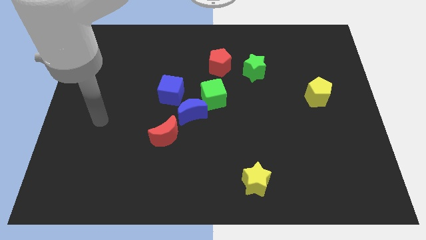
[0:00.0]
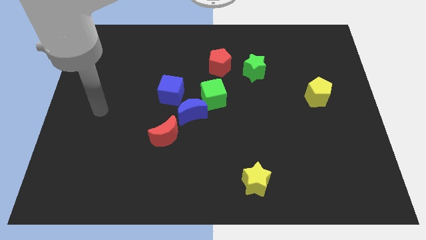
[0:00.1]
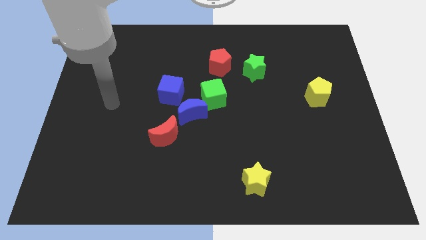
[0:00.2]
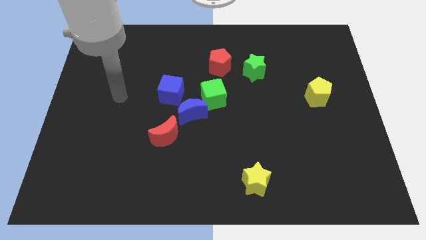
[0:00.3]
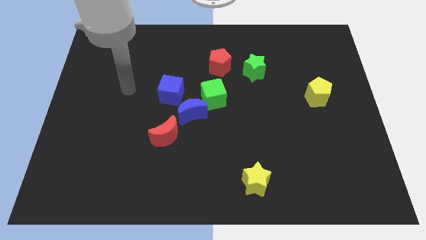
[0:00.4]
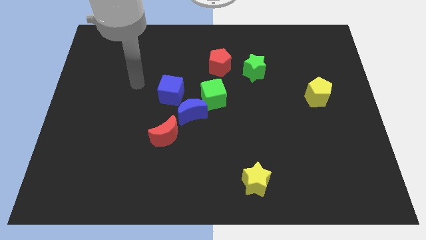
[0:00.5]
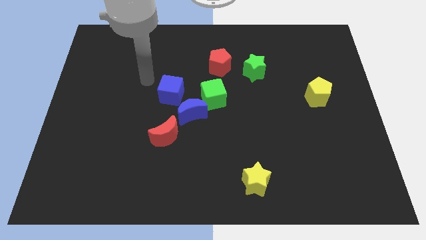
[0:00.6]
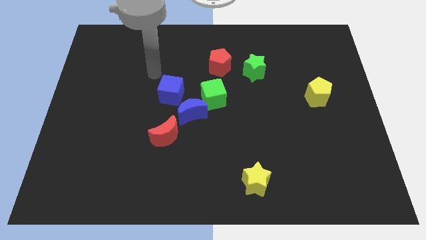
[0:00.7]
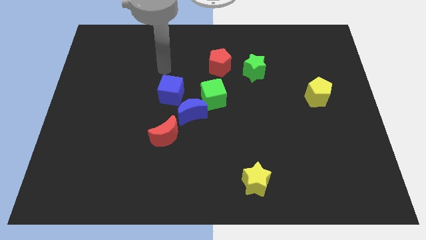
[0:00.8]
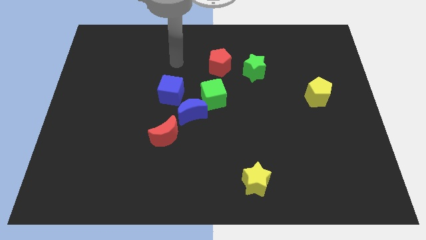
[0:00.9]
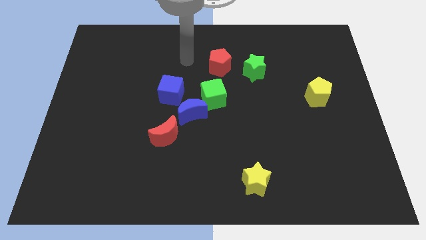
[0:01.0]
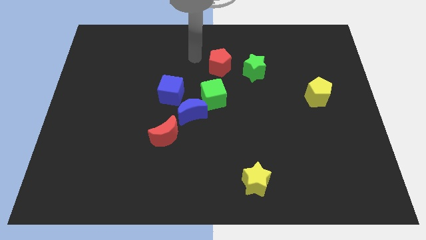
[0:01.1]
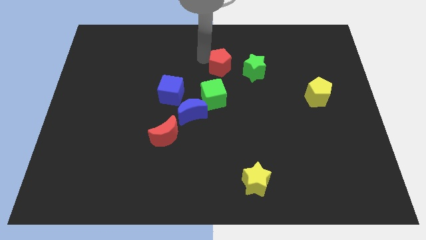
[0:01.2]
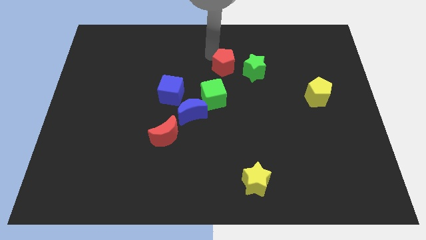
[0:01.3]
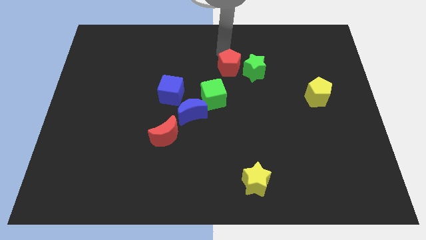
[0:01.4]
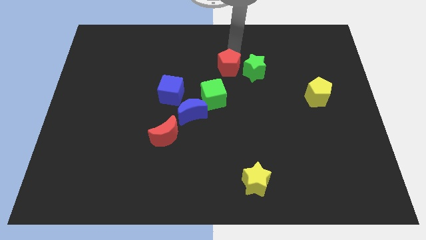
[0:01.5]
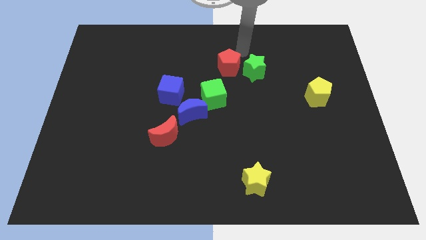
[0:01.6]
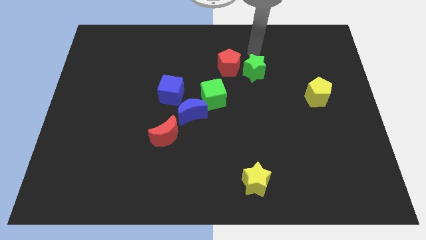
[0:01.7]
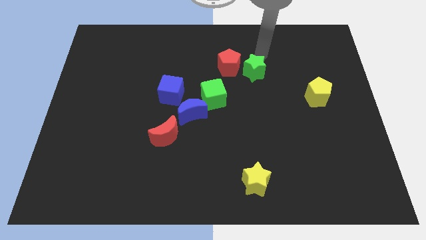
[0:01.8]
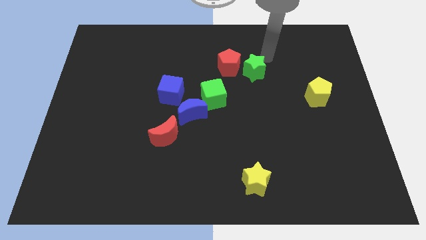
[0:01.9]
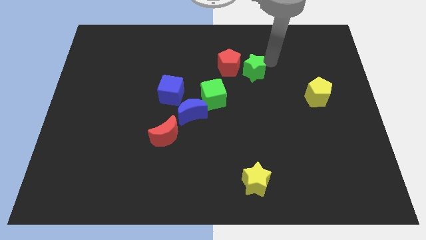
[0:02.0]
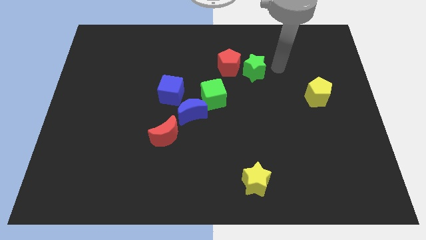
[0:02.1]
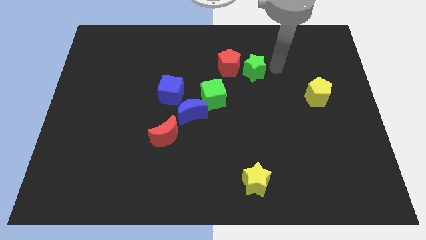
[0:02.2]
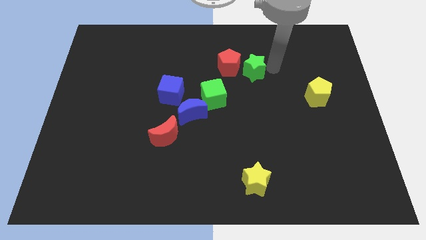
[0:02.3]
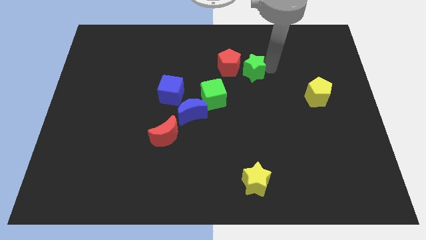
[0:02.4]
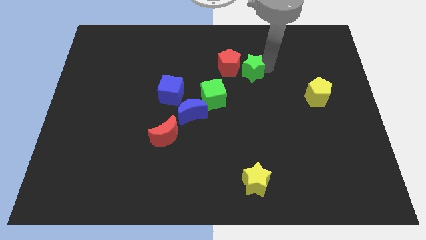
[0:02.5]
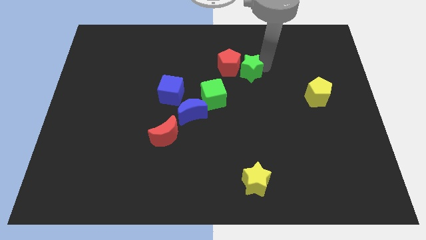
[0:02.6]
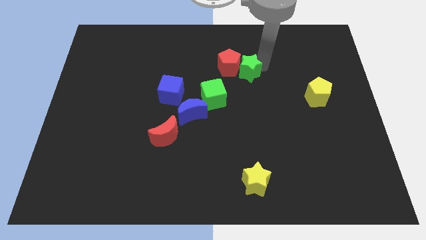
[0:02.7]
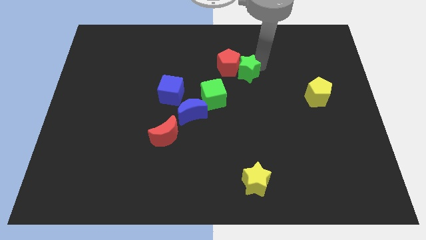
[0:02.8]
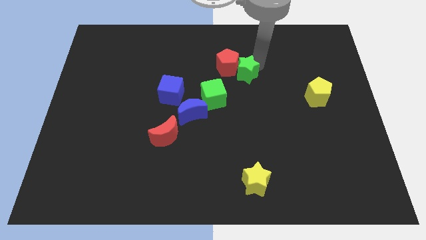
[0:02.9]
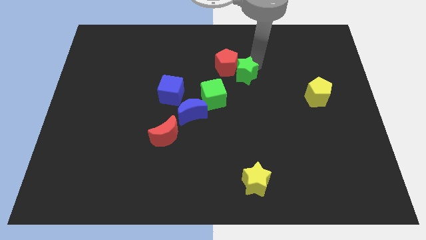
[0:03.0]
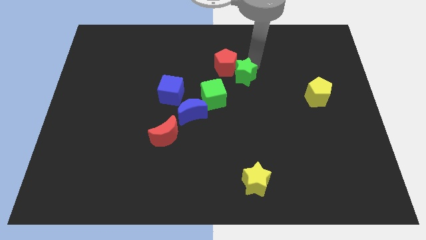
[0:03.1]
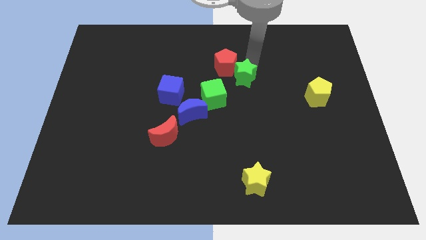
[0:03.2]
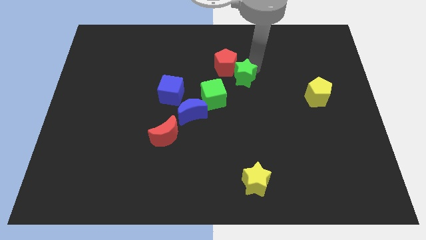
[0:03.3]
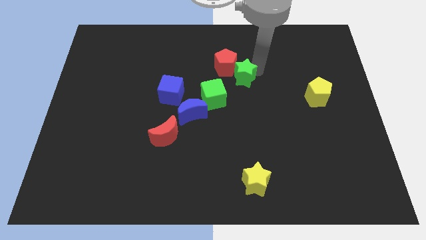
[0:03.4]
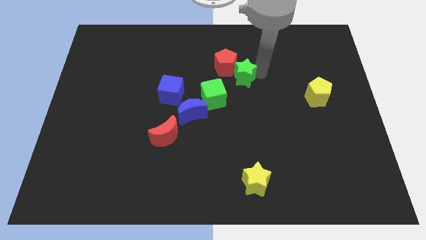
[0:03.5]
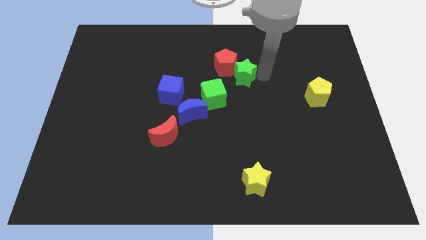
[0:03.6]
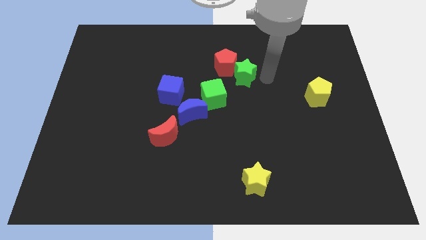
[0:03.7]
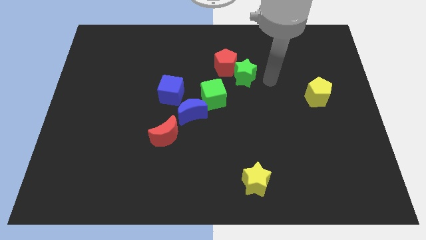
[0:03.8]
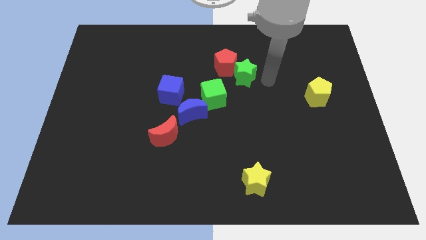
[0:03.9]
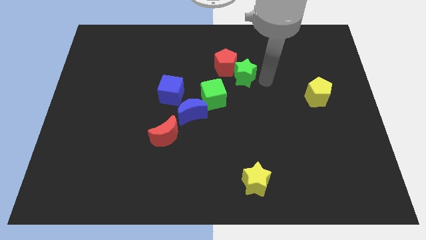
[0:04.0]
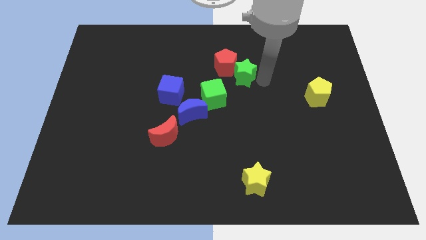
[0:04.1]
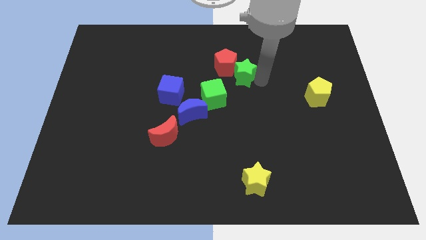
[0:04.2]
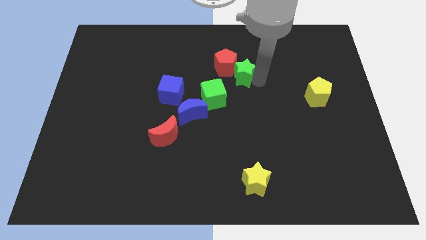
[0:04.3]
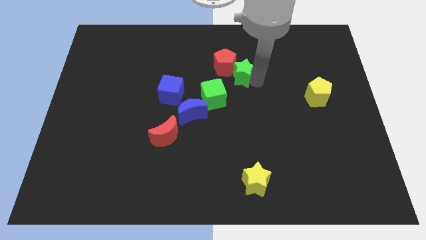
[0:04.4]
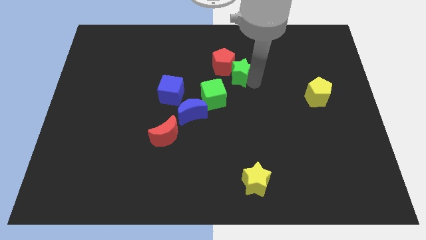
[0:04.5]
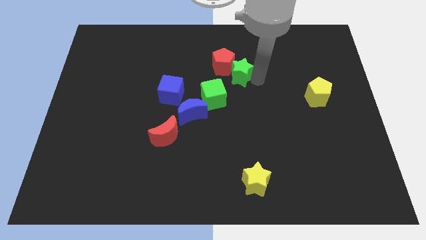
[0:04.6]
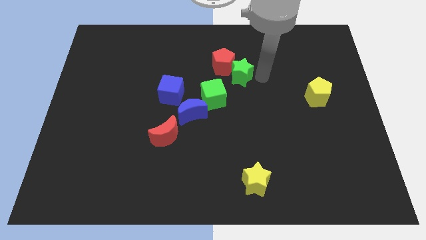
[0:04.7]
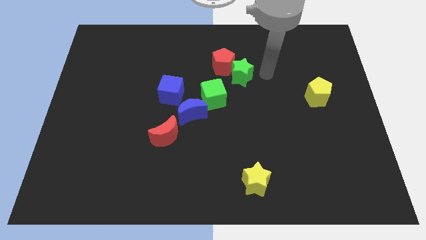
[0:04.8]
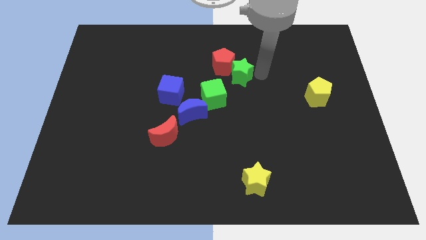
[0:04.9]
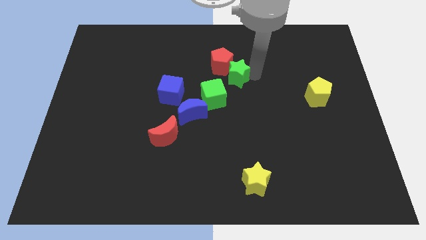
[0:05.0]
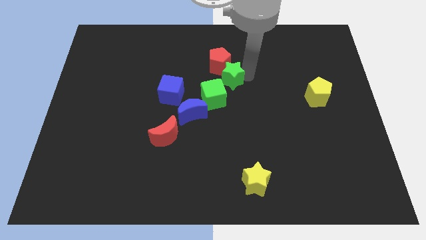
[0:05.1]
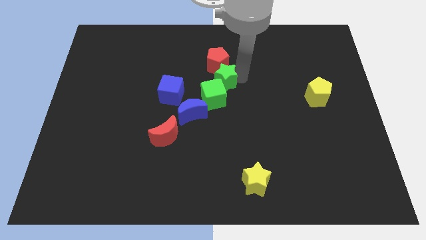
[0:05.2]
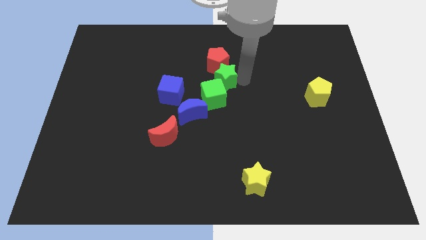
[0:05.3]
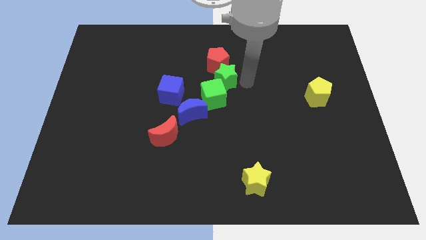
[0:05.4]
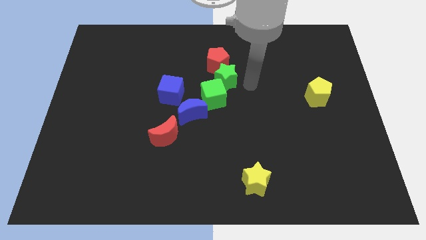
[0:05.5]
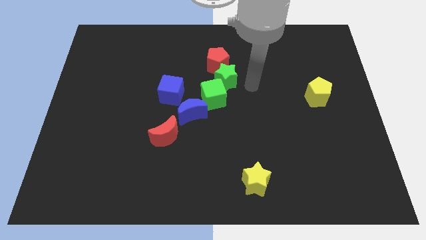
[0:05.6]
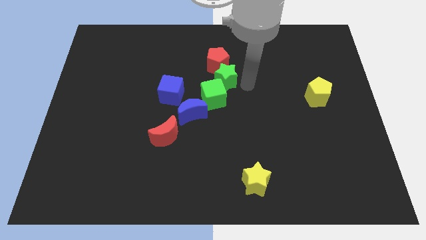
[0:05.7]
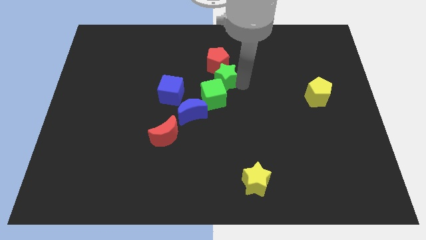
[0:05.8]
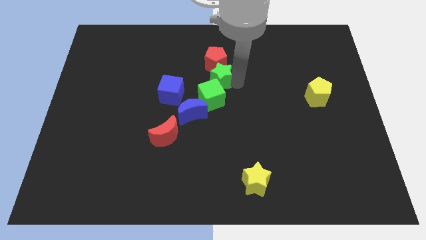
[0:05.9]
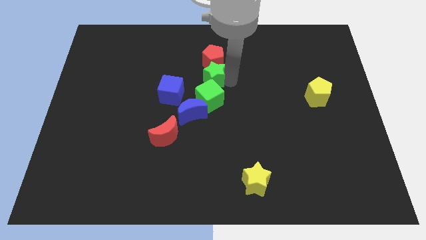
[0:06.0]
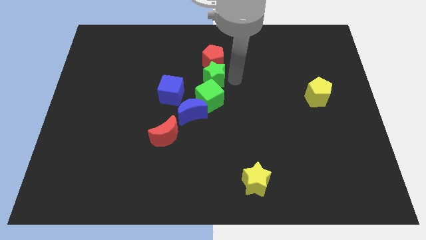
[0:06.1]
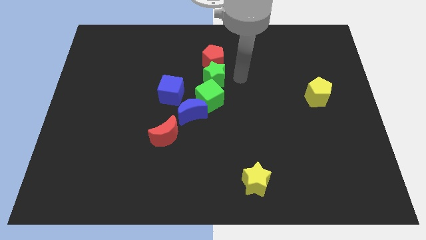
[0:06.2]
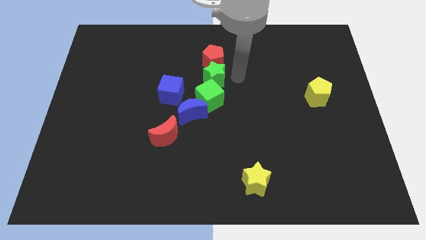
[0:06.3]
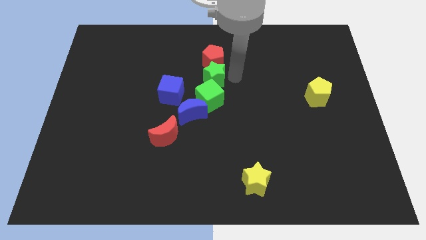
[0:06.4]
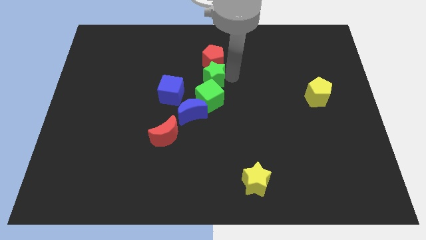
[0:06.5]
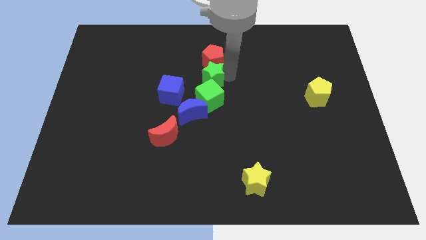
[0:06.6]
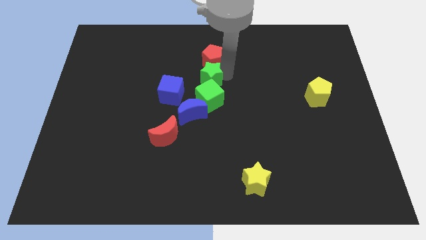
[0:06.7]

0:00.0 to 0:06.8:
push the green star above the blue moon

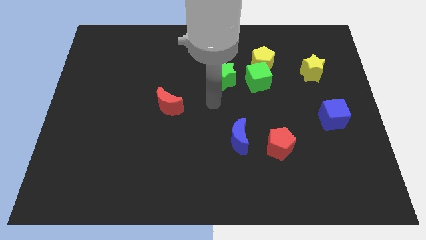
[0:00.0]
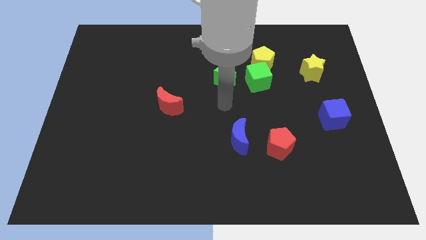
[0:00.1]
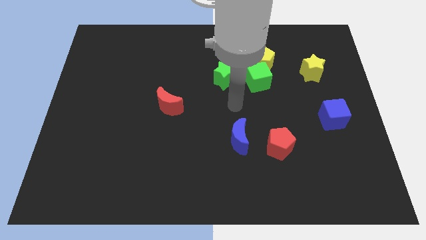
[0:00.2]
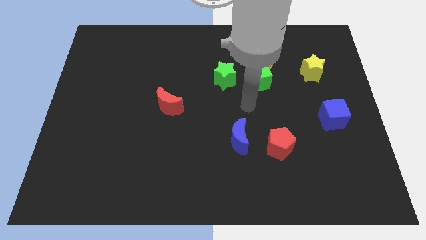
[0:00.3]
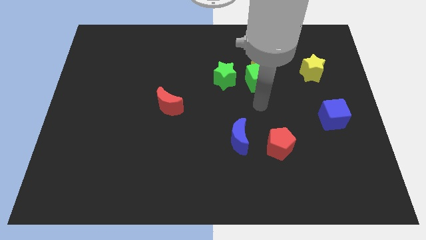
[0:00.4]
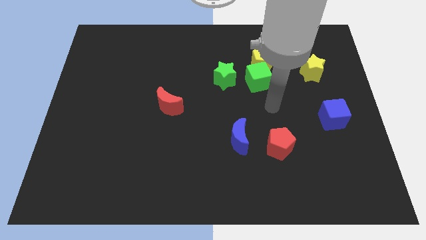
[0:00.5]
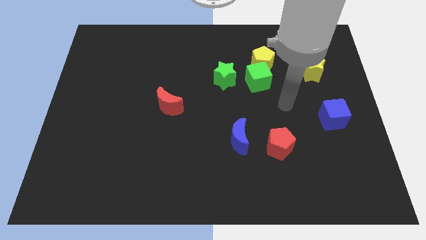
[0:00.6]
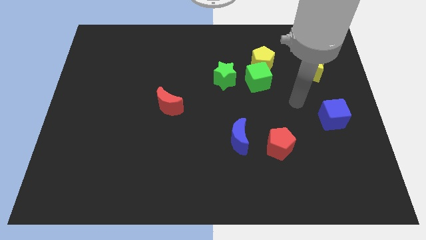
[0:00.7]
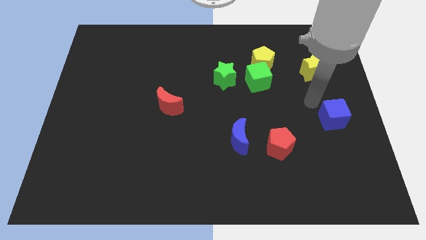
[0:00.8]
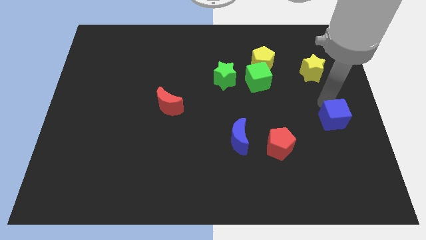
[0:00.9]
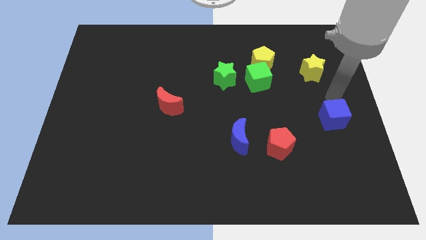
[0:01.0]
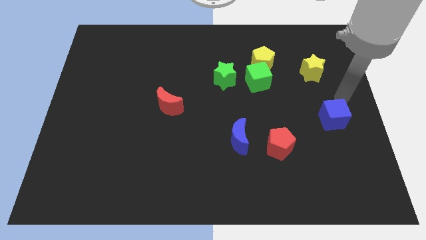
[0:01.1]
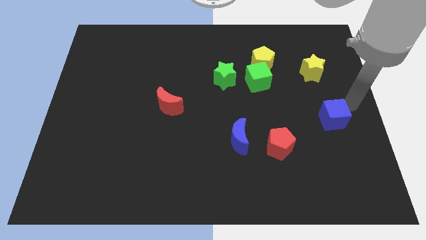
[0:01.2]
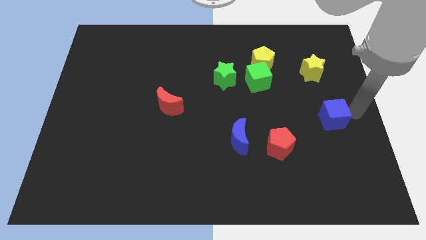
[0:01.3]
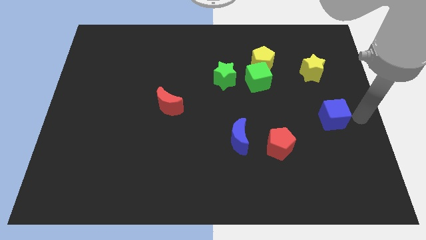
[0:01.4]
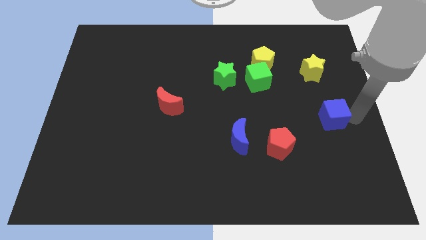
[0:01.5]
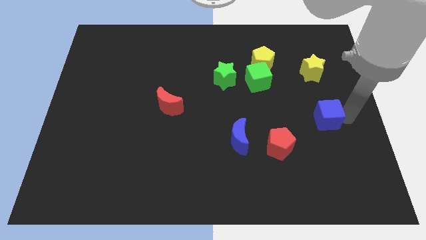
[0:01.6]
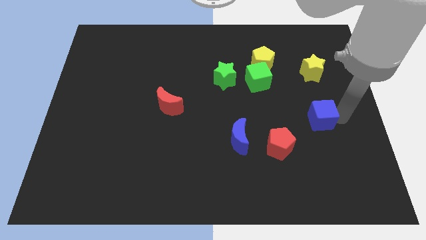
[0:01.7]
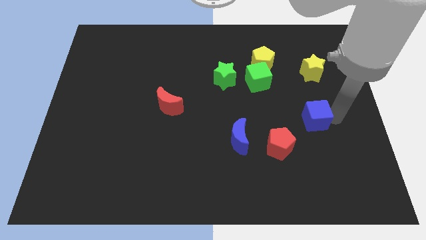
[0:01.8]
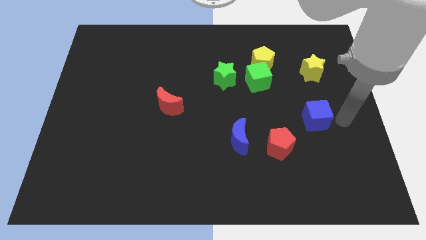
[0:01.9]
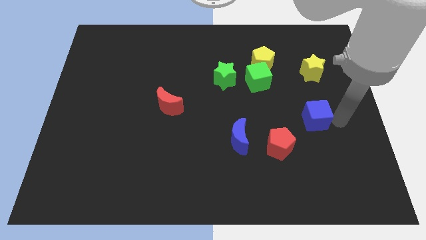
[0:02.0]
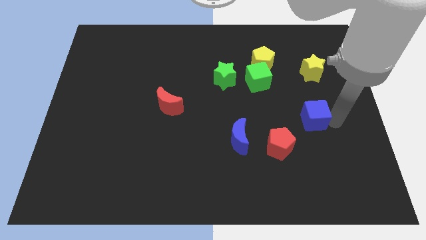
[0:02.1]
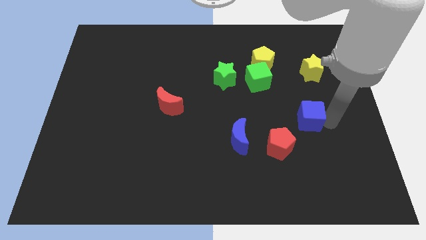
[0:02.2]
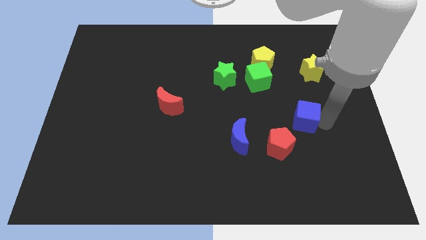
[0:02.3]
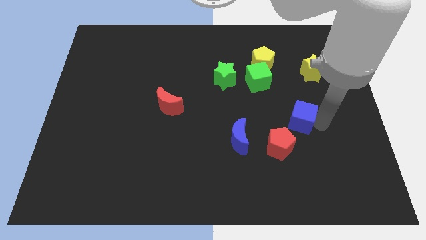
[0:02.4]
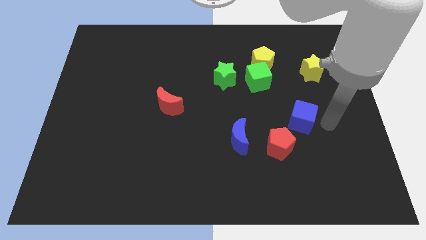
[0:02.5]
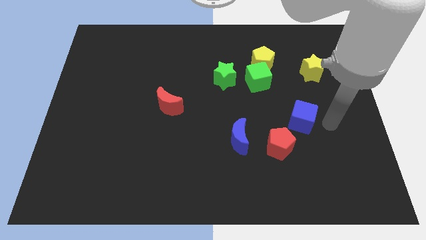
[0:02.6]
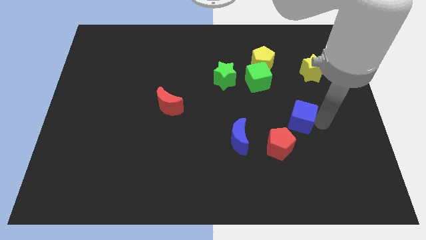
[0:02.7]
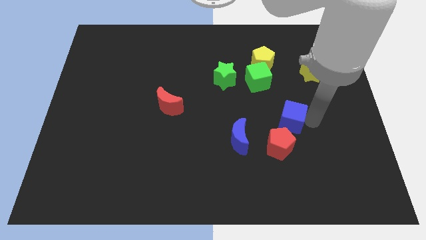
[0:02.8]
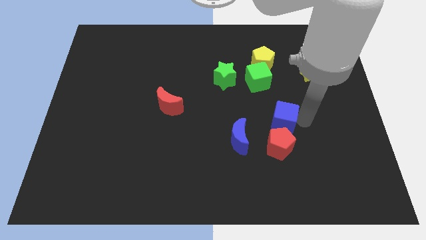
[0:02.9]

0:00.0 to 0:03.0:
slide the blue cube to the bottom side of the green cube
